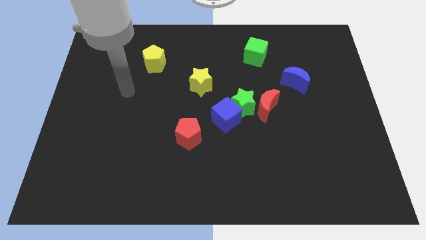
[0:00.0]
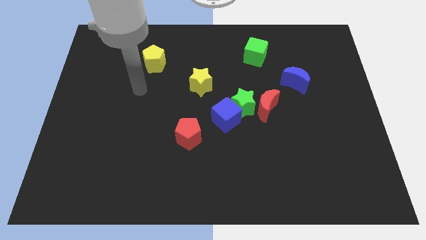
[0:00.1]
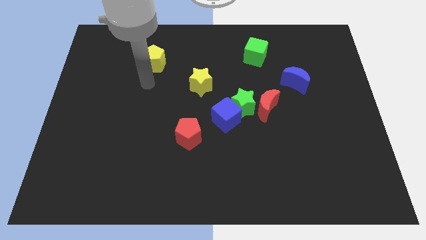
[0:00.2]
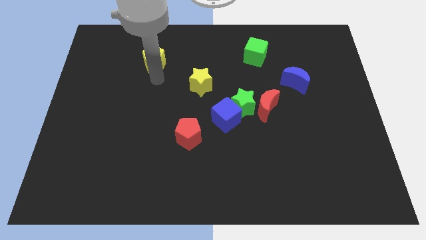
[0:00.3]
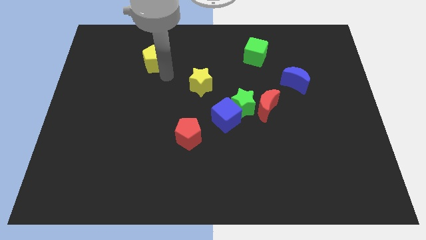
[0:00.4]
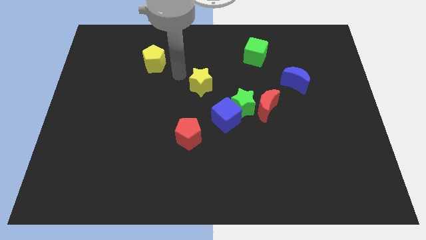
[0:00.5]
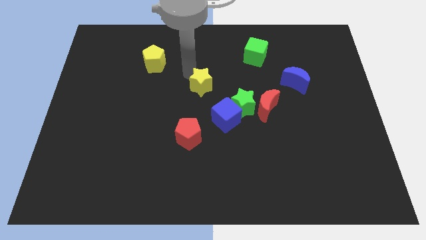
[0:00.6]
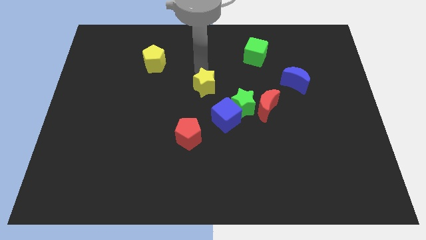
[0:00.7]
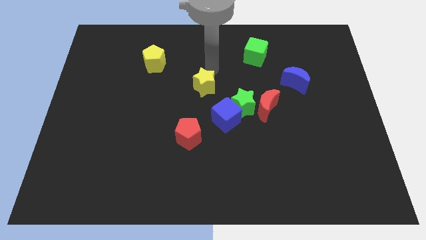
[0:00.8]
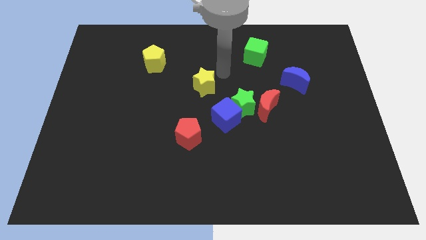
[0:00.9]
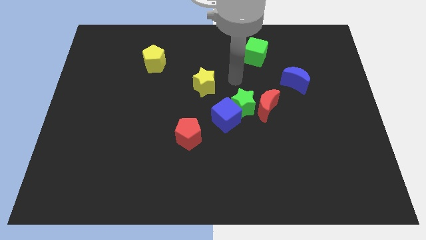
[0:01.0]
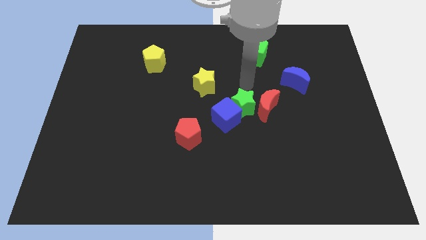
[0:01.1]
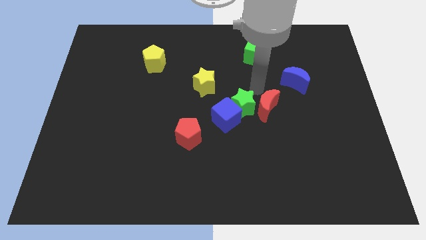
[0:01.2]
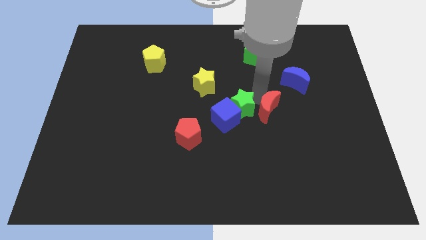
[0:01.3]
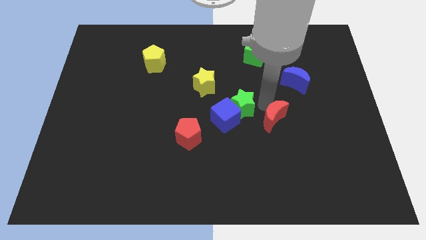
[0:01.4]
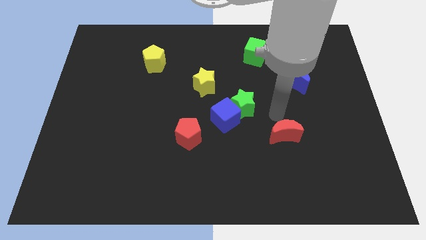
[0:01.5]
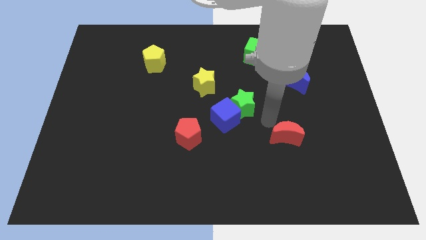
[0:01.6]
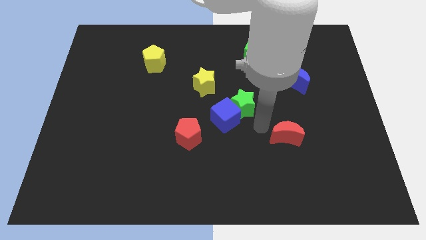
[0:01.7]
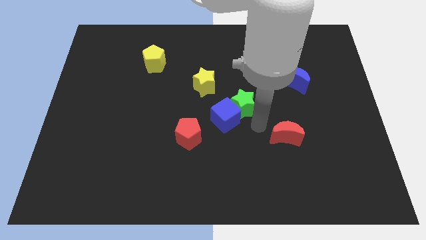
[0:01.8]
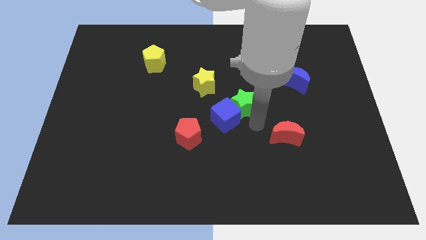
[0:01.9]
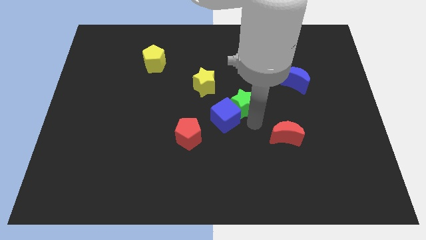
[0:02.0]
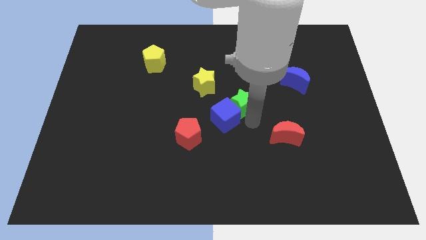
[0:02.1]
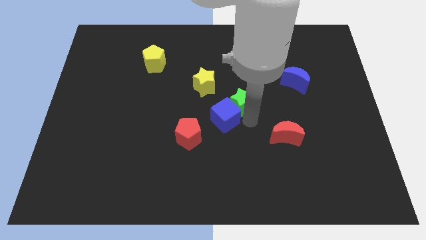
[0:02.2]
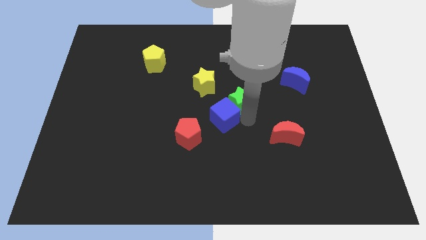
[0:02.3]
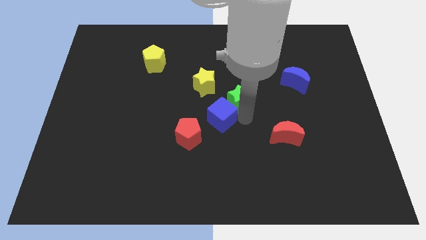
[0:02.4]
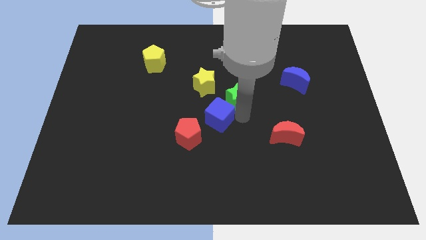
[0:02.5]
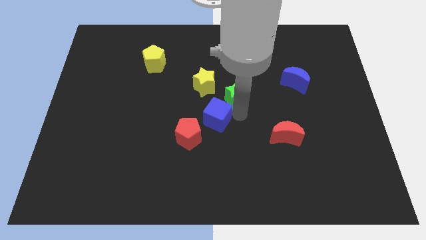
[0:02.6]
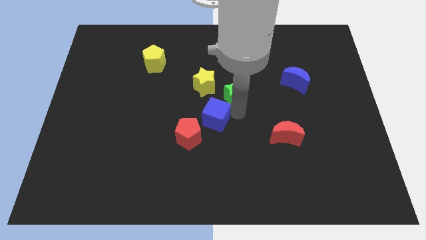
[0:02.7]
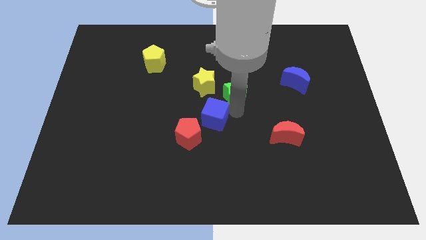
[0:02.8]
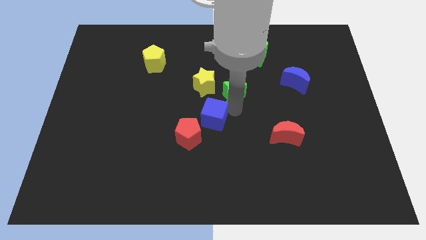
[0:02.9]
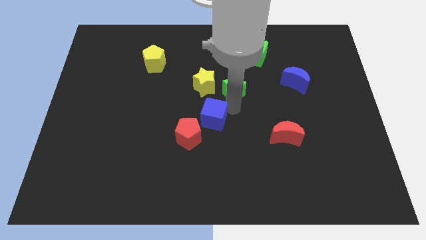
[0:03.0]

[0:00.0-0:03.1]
move the green star away from the blue cube and red moon

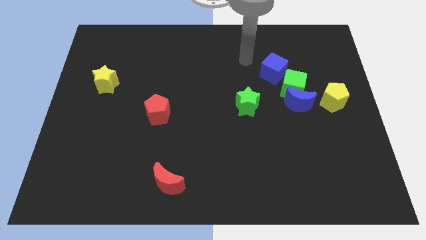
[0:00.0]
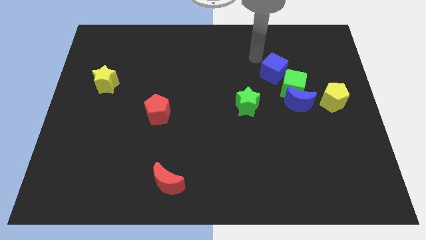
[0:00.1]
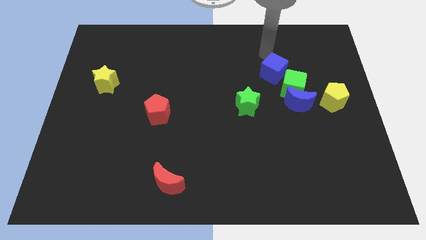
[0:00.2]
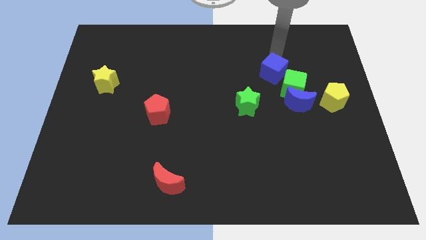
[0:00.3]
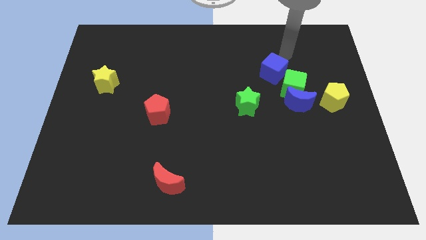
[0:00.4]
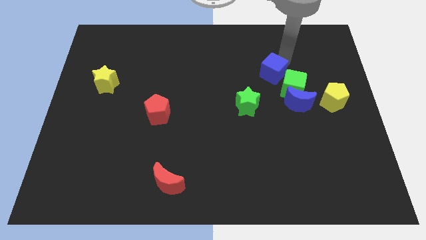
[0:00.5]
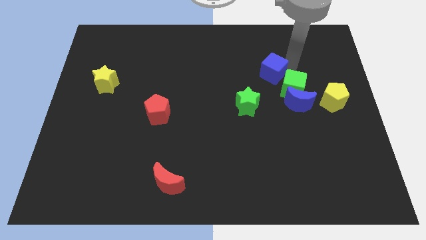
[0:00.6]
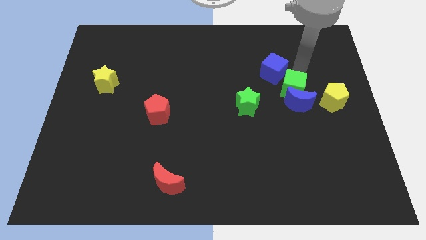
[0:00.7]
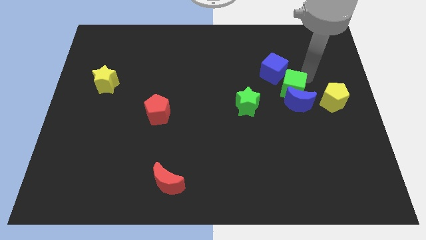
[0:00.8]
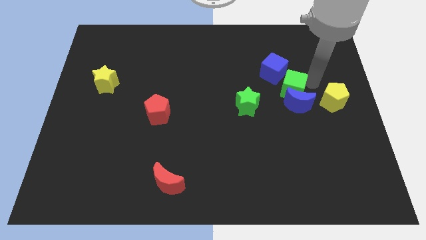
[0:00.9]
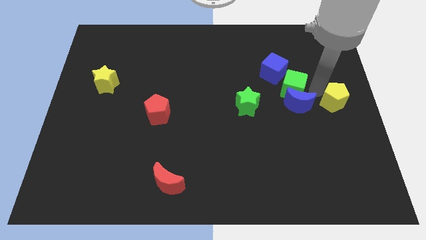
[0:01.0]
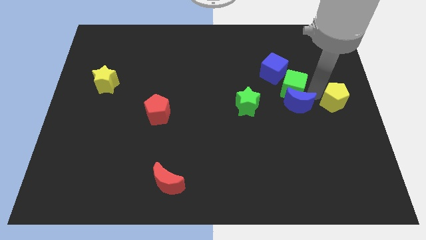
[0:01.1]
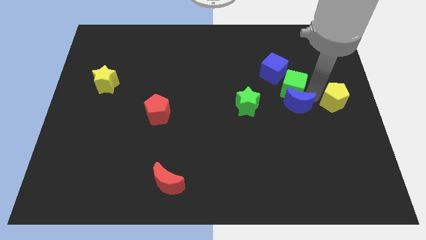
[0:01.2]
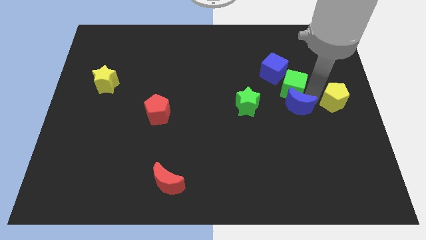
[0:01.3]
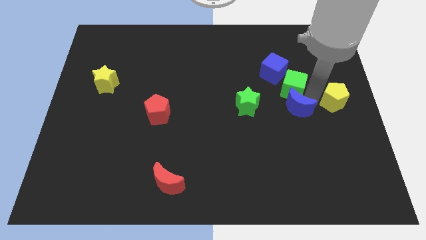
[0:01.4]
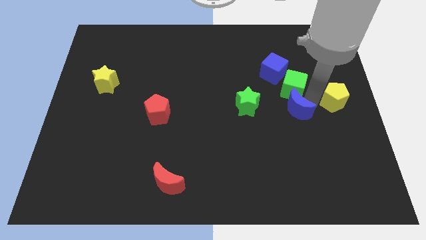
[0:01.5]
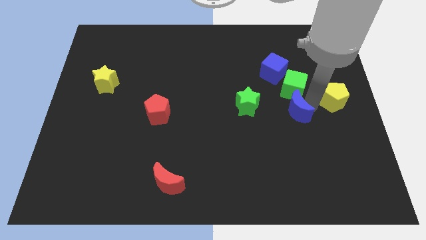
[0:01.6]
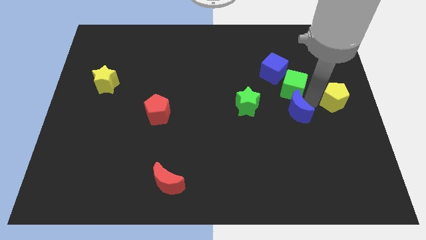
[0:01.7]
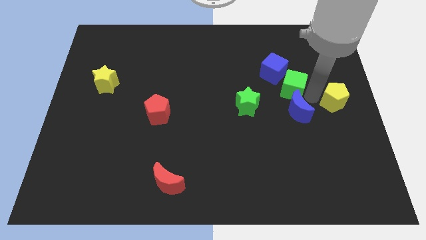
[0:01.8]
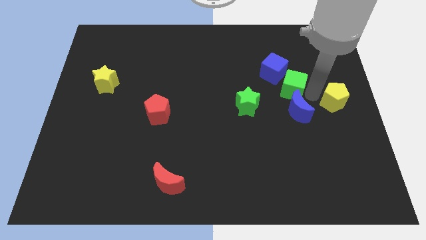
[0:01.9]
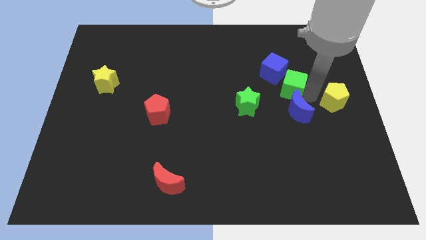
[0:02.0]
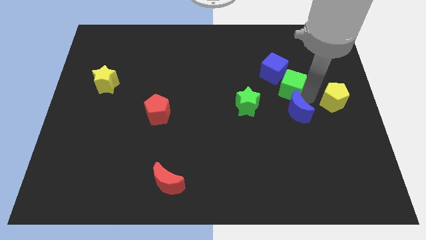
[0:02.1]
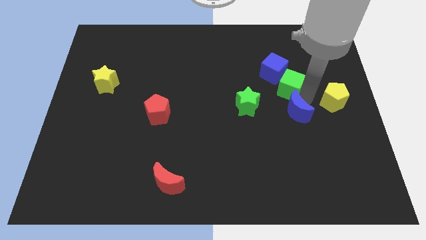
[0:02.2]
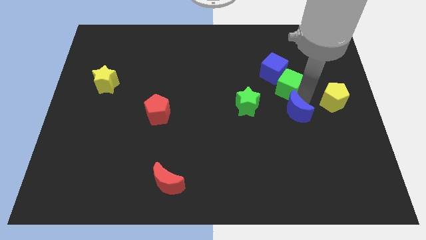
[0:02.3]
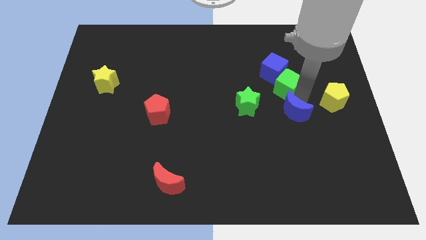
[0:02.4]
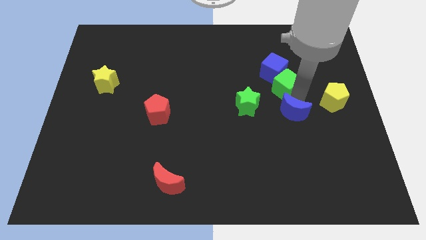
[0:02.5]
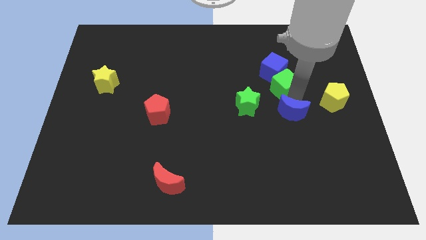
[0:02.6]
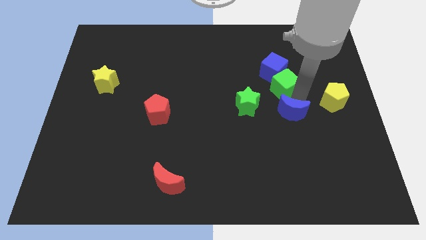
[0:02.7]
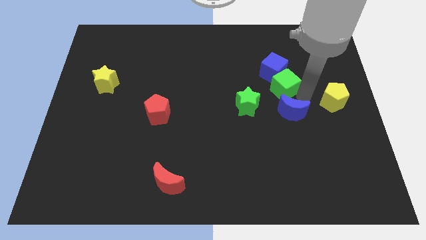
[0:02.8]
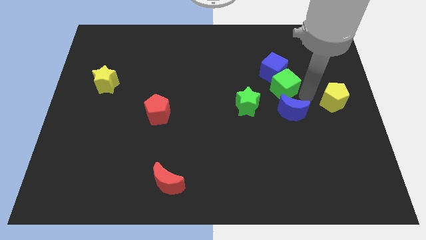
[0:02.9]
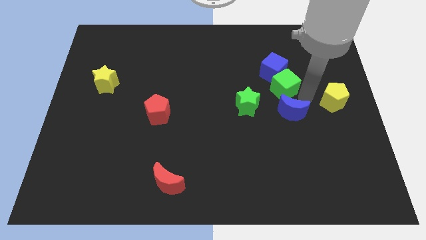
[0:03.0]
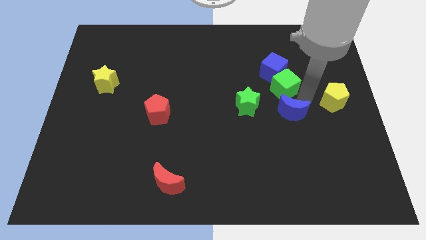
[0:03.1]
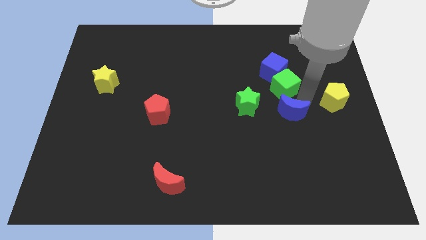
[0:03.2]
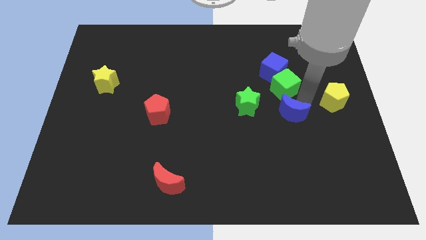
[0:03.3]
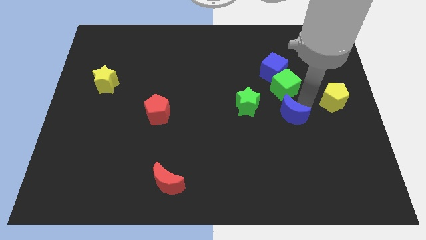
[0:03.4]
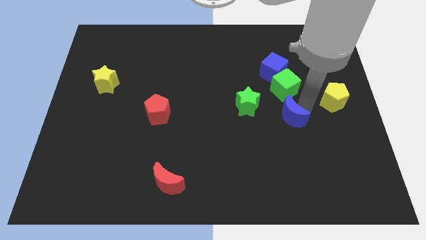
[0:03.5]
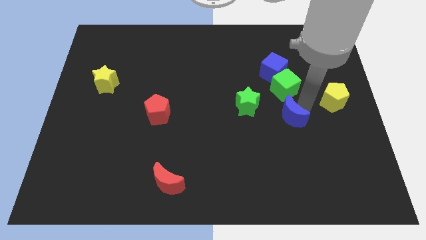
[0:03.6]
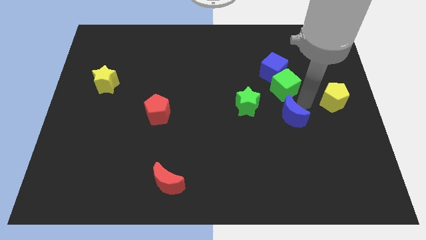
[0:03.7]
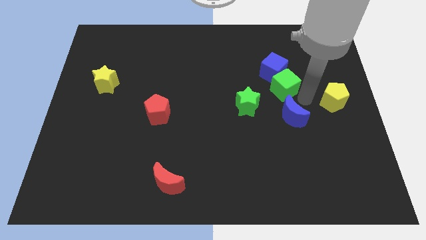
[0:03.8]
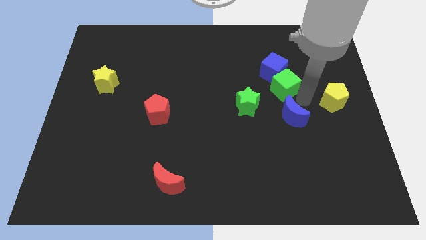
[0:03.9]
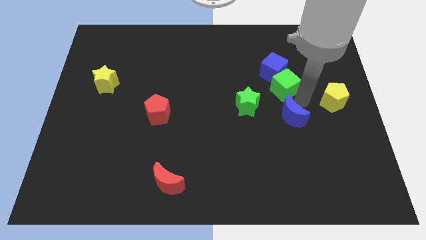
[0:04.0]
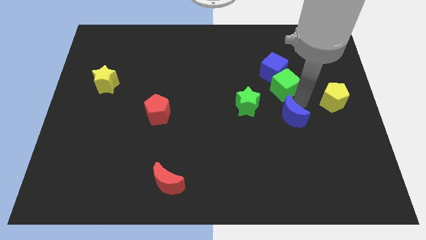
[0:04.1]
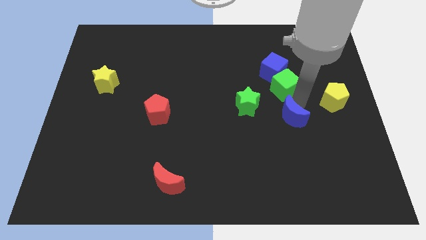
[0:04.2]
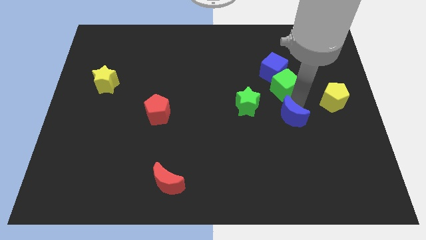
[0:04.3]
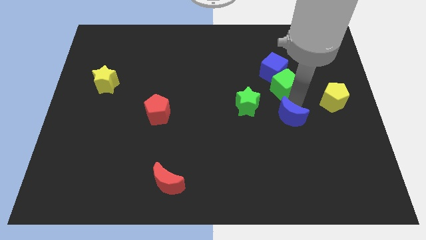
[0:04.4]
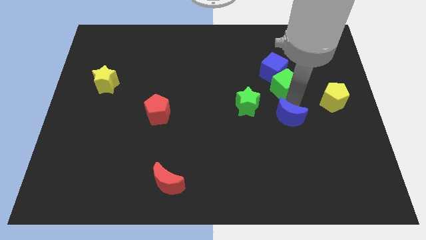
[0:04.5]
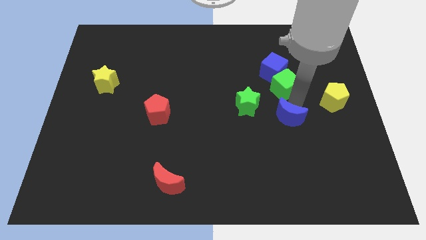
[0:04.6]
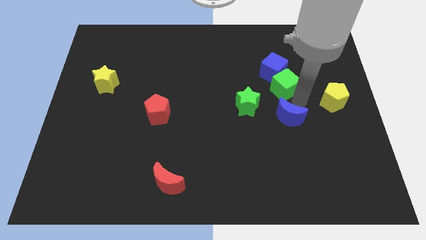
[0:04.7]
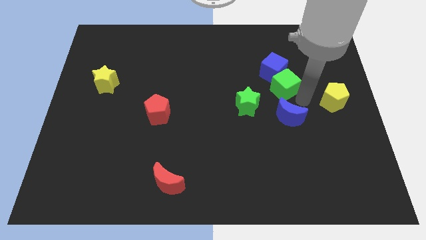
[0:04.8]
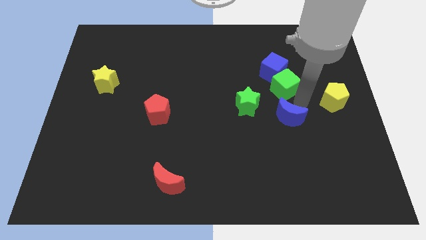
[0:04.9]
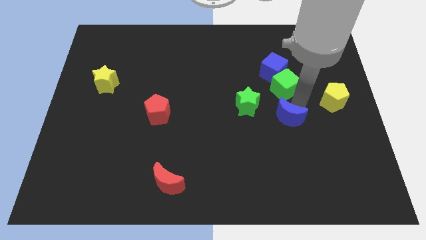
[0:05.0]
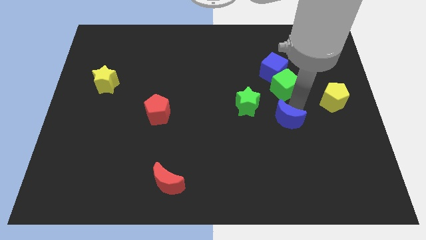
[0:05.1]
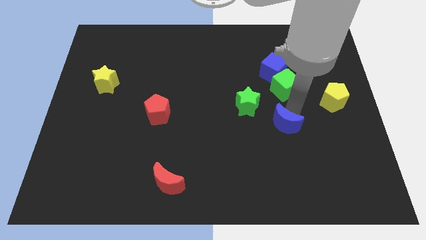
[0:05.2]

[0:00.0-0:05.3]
separate the blue moon from the green cube and yellow pentagon

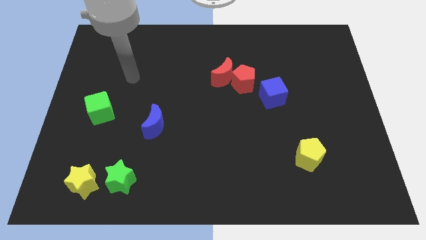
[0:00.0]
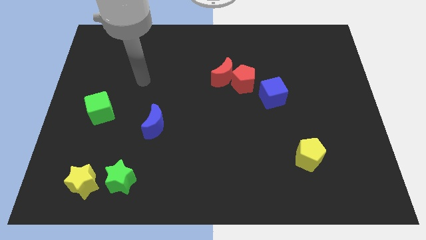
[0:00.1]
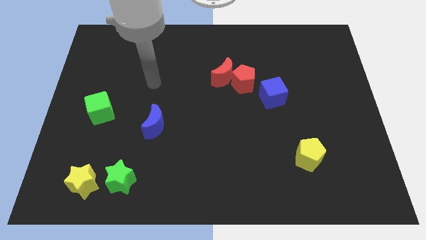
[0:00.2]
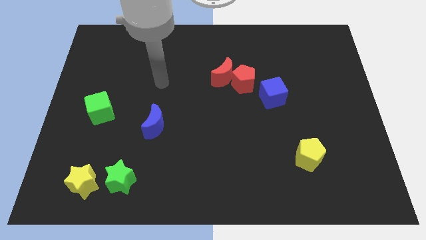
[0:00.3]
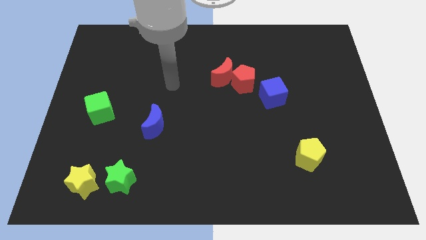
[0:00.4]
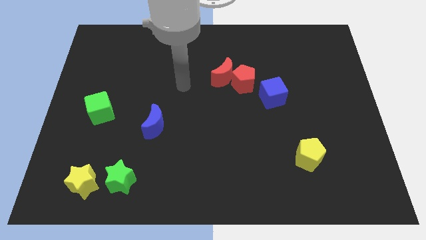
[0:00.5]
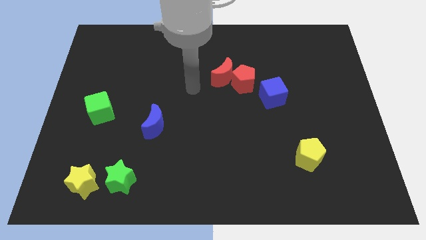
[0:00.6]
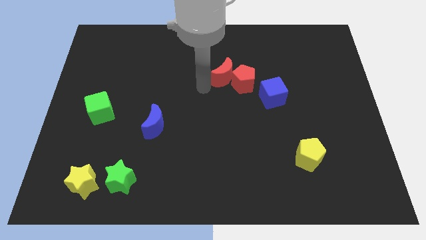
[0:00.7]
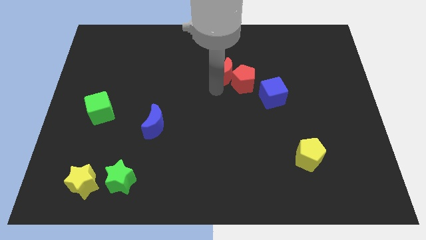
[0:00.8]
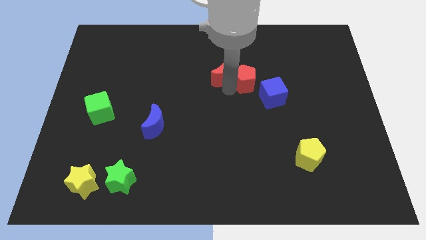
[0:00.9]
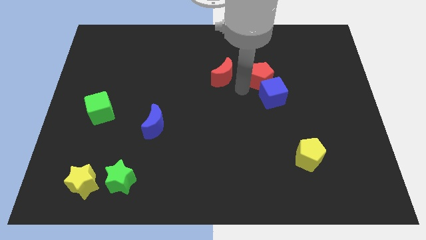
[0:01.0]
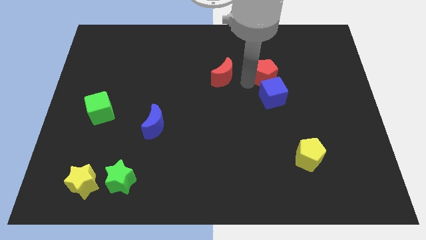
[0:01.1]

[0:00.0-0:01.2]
move the red moon away from the red pentagon
